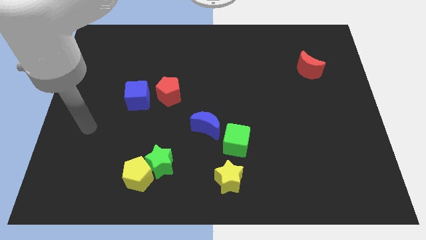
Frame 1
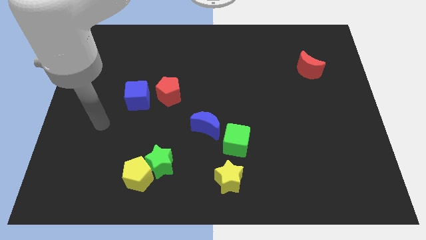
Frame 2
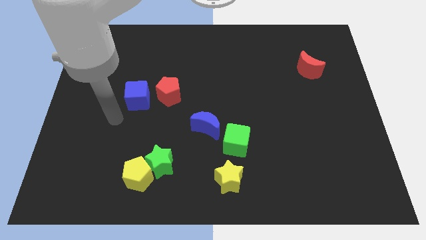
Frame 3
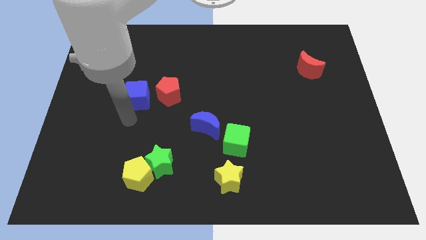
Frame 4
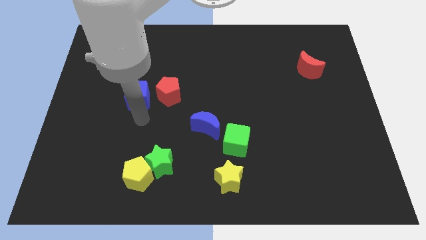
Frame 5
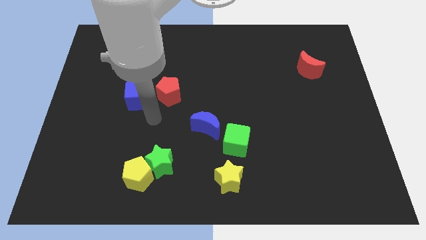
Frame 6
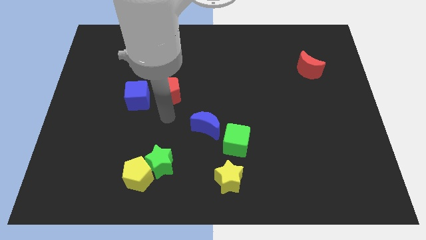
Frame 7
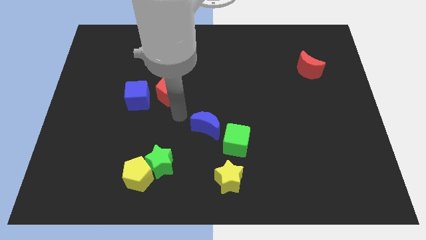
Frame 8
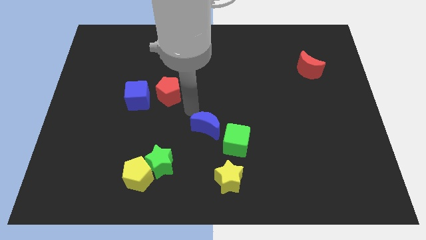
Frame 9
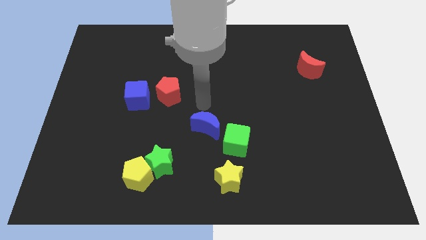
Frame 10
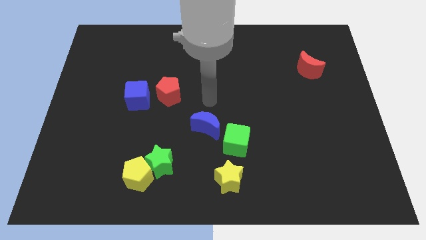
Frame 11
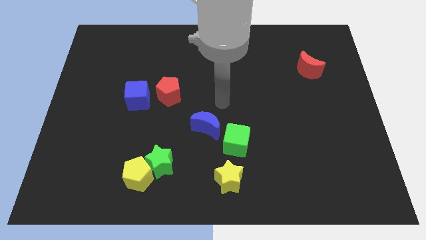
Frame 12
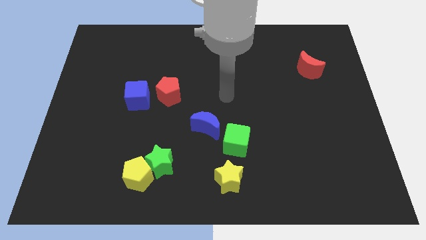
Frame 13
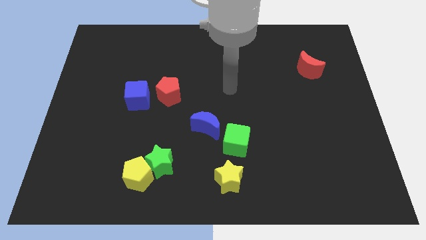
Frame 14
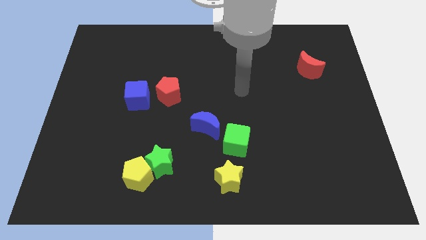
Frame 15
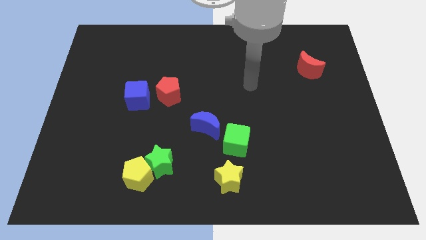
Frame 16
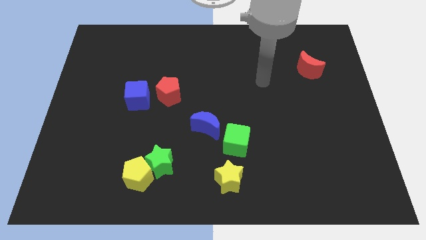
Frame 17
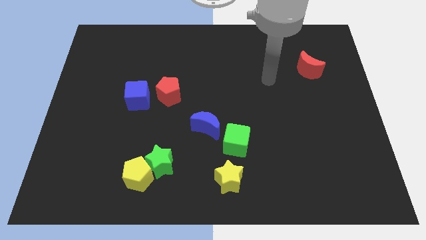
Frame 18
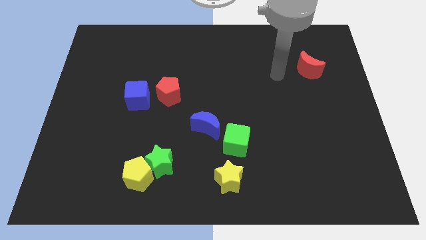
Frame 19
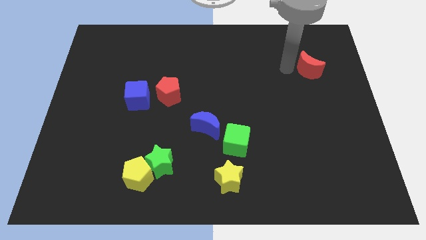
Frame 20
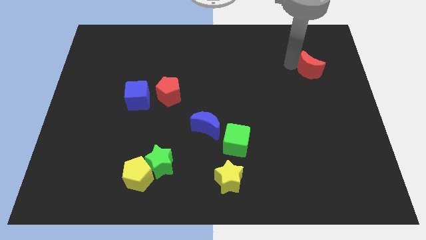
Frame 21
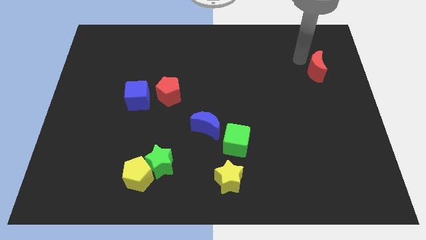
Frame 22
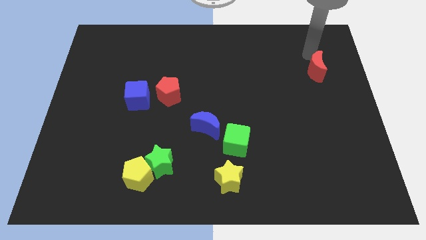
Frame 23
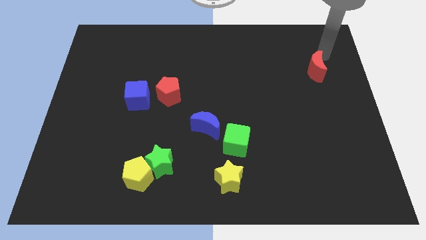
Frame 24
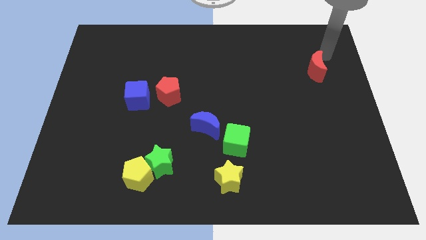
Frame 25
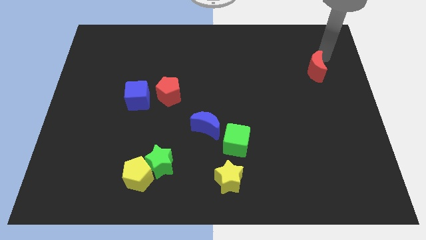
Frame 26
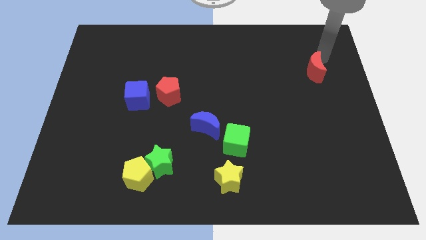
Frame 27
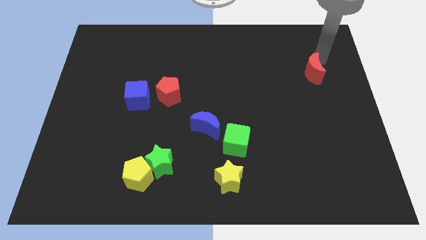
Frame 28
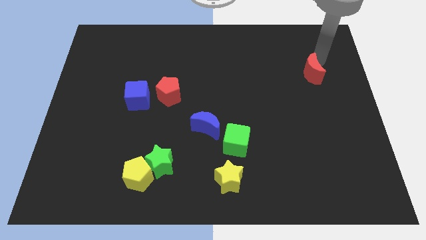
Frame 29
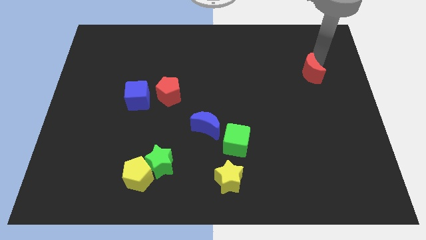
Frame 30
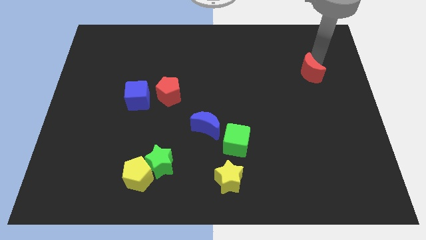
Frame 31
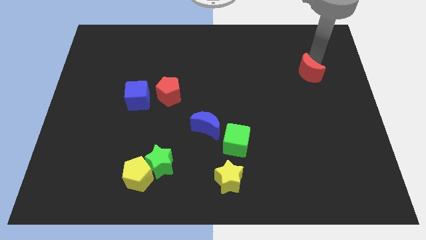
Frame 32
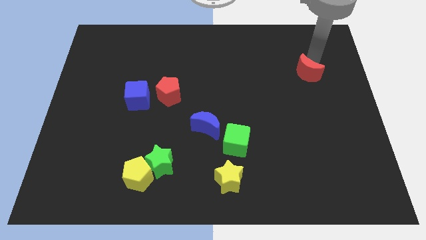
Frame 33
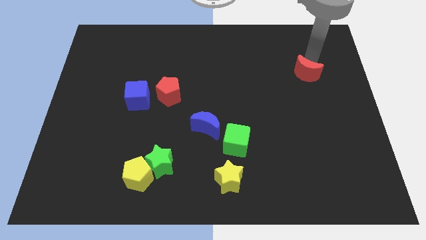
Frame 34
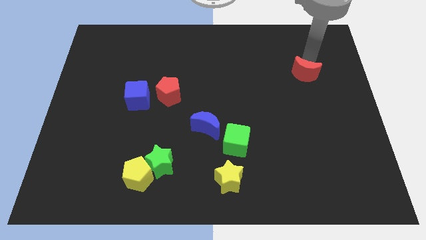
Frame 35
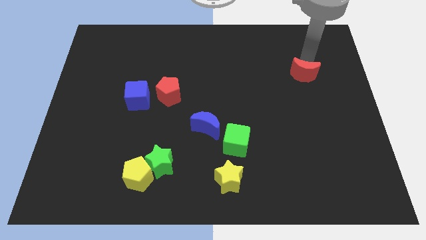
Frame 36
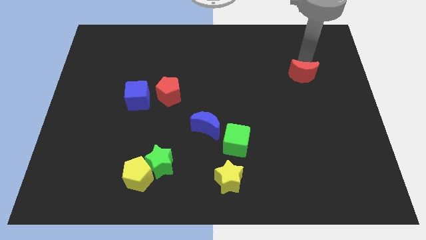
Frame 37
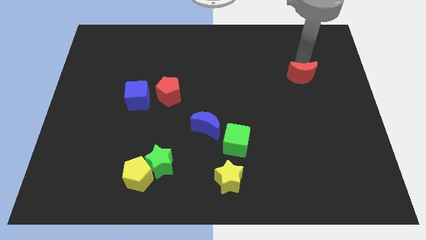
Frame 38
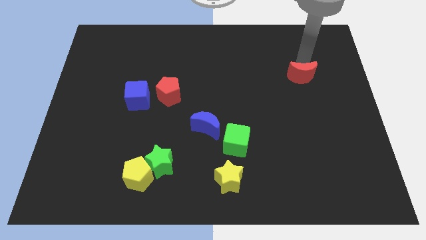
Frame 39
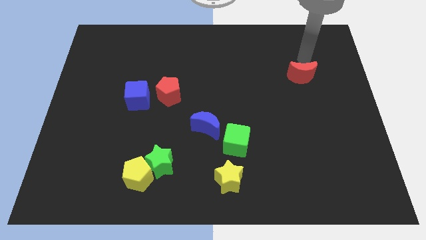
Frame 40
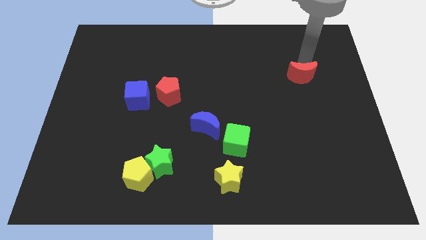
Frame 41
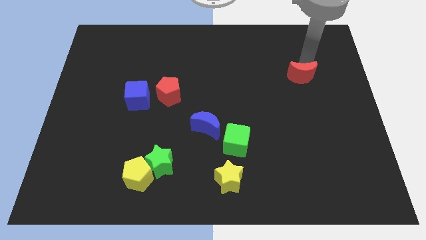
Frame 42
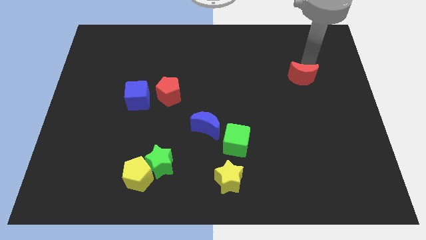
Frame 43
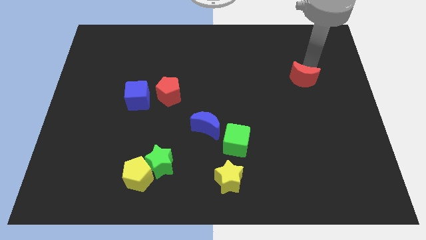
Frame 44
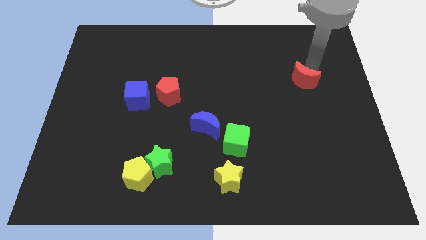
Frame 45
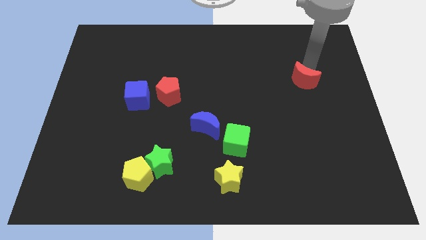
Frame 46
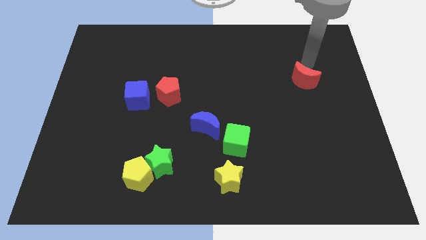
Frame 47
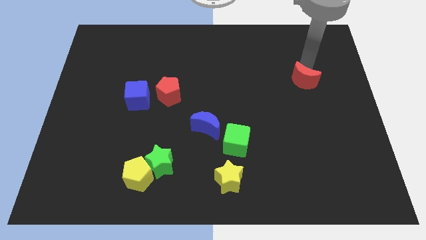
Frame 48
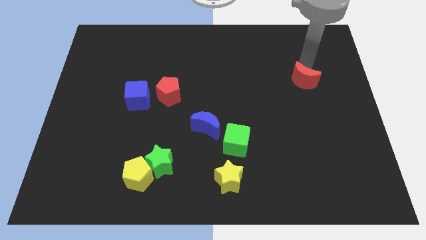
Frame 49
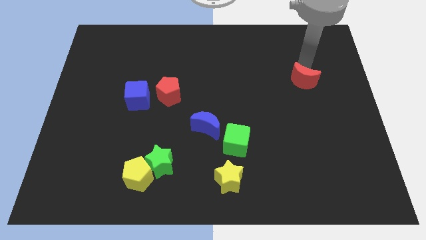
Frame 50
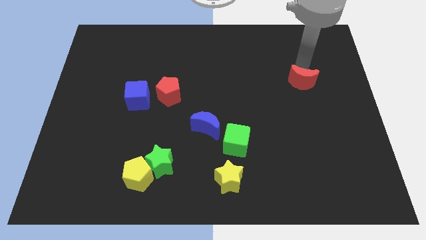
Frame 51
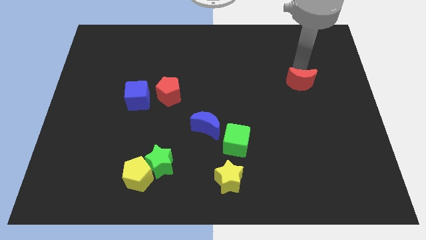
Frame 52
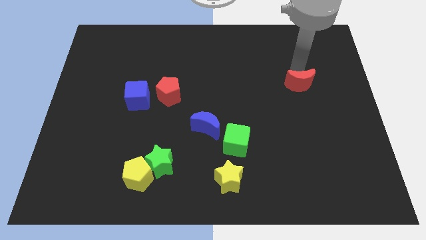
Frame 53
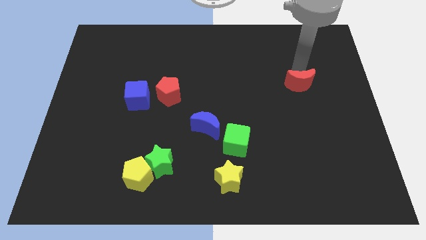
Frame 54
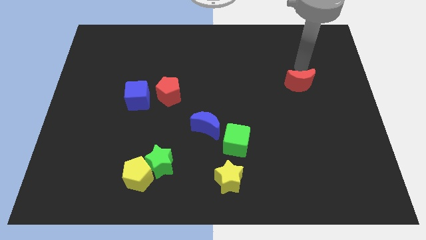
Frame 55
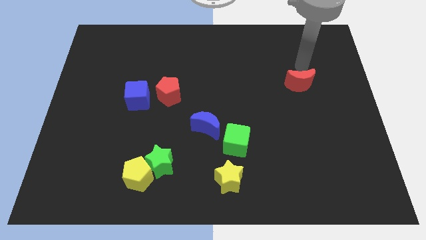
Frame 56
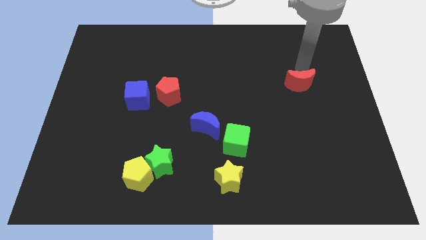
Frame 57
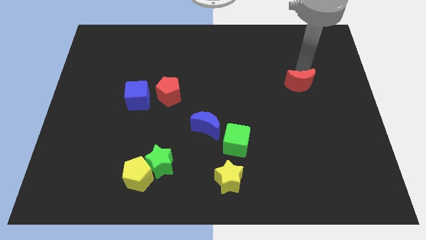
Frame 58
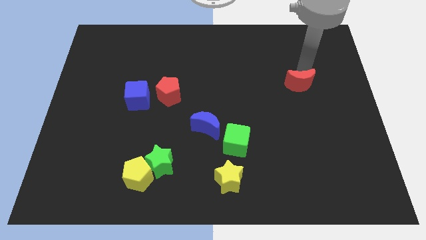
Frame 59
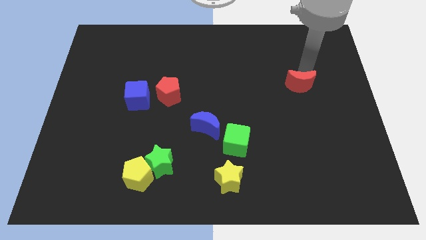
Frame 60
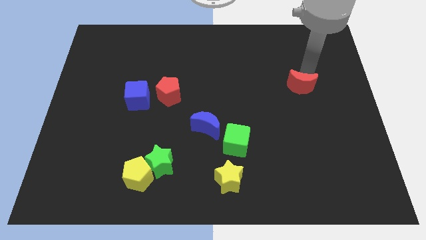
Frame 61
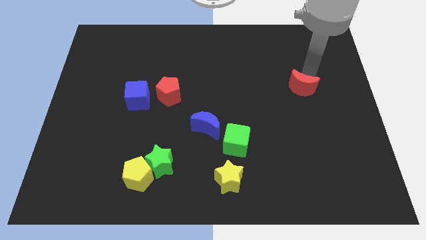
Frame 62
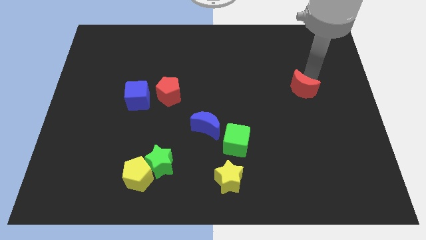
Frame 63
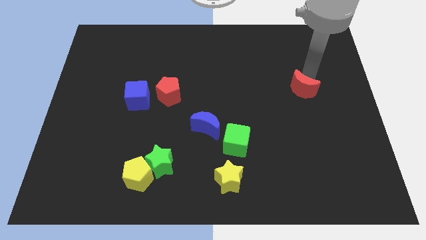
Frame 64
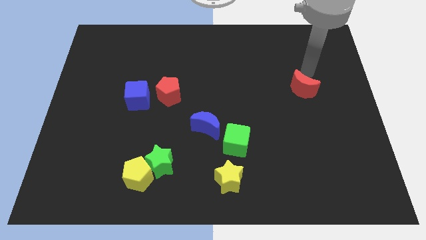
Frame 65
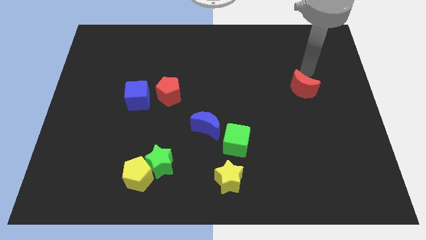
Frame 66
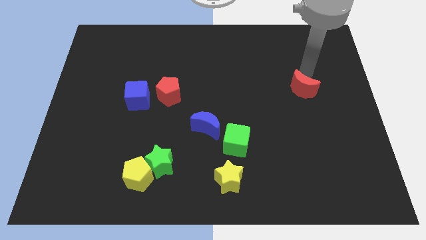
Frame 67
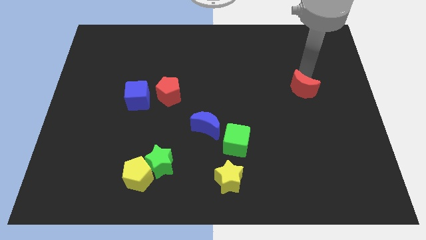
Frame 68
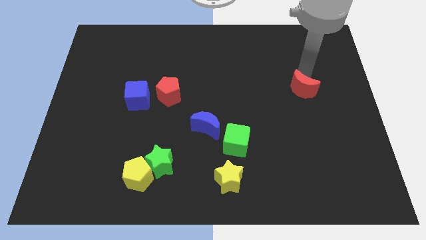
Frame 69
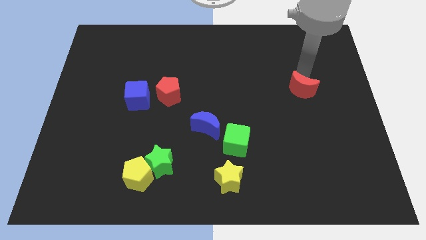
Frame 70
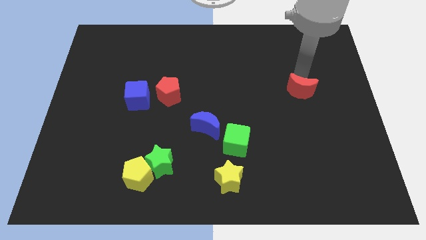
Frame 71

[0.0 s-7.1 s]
push the red moon a little down

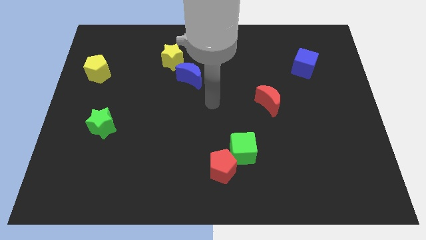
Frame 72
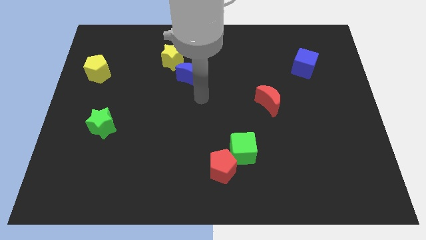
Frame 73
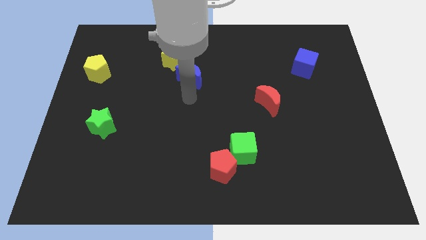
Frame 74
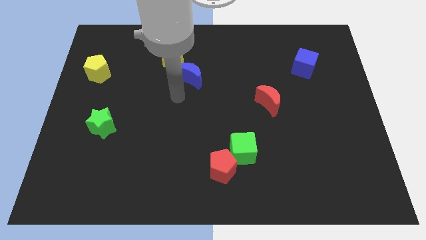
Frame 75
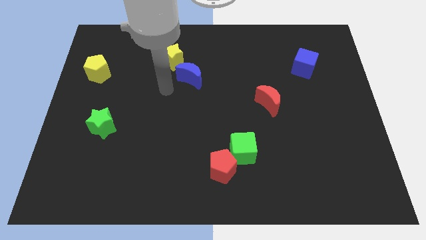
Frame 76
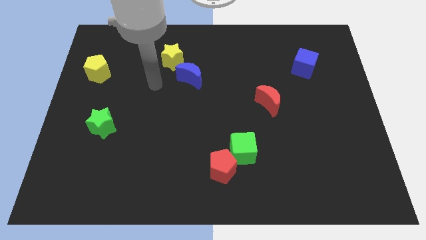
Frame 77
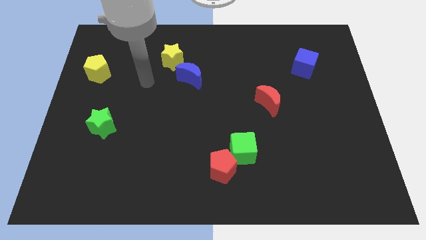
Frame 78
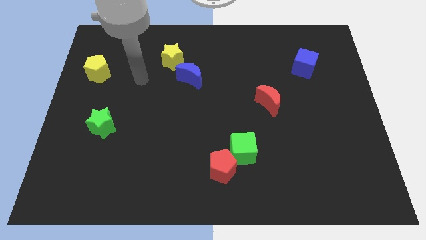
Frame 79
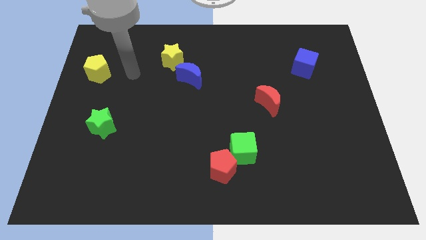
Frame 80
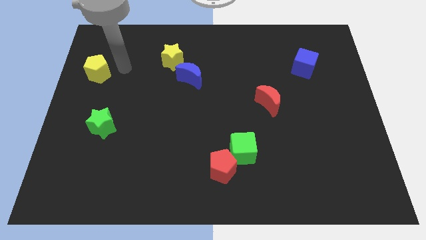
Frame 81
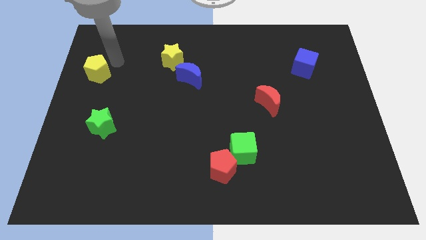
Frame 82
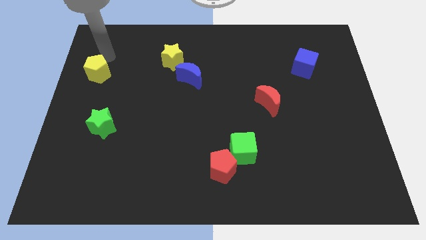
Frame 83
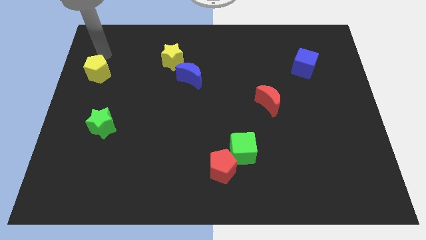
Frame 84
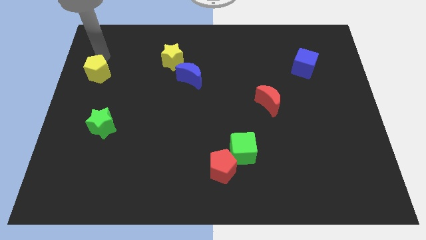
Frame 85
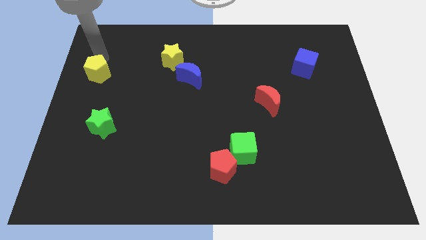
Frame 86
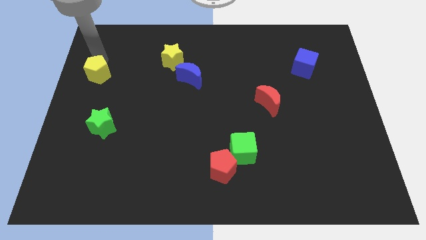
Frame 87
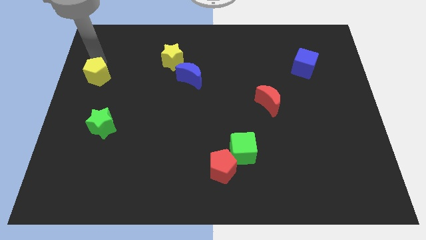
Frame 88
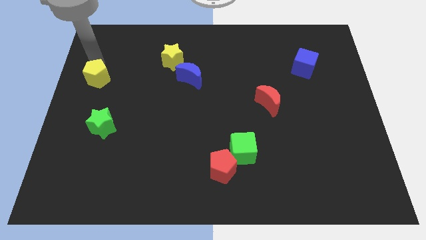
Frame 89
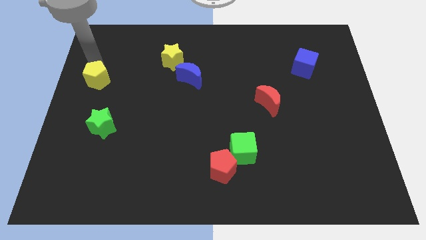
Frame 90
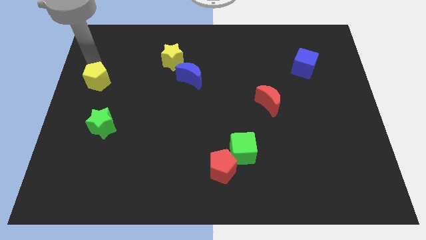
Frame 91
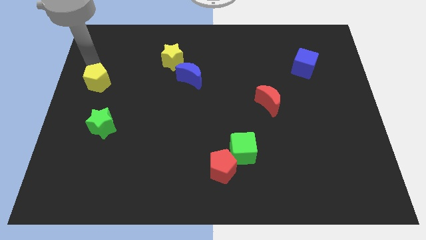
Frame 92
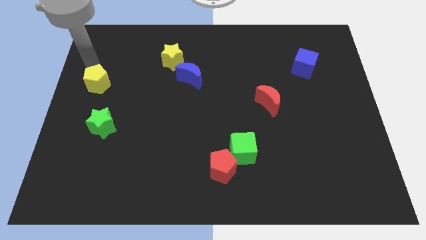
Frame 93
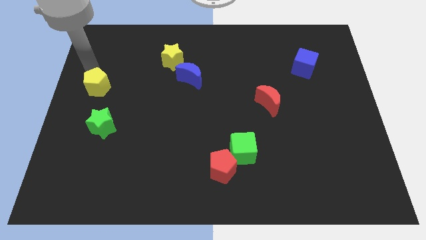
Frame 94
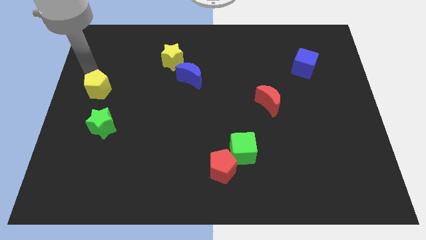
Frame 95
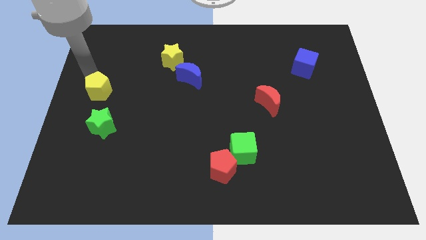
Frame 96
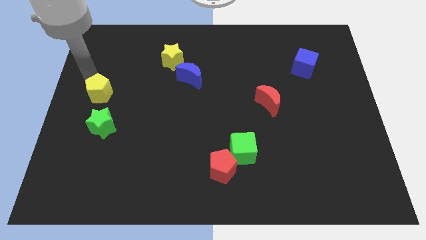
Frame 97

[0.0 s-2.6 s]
move the yellow pentagon a little down
